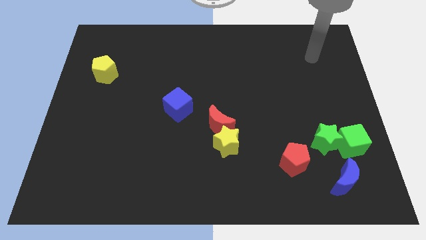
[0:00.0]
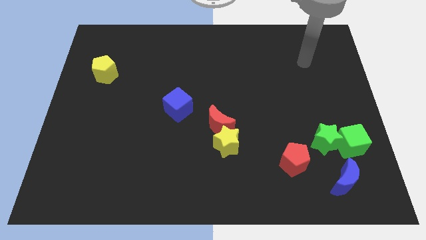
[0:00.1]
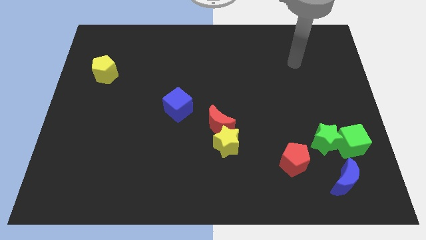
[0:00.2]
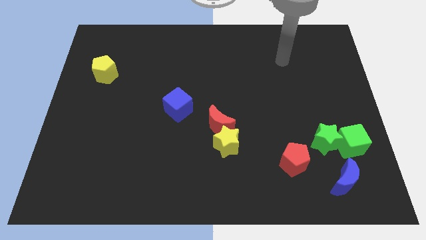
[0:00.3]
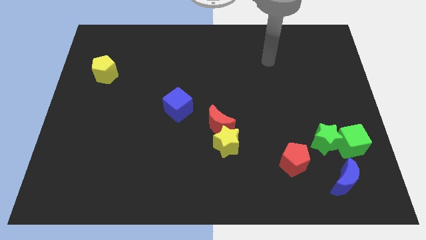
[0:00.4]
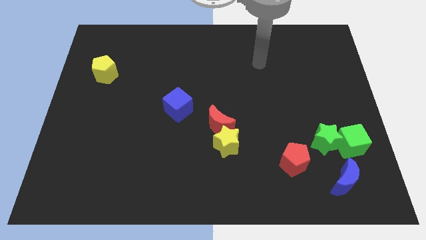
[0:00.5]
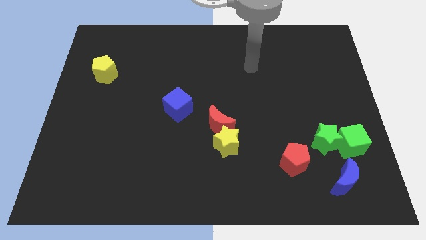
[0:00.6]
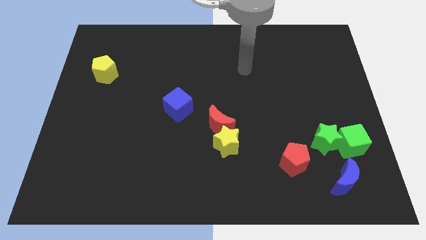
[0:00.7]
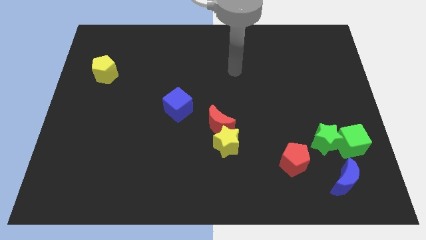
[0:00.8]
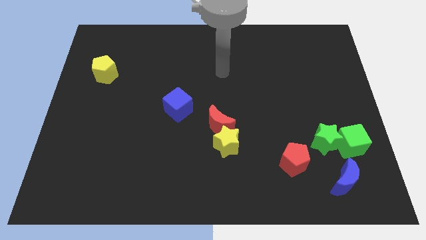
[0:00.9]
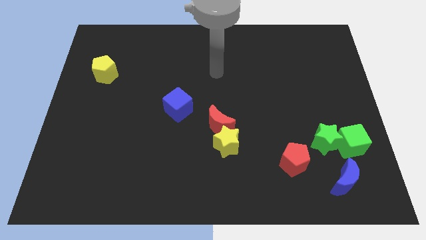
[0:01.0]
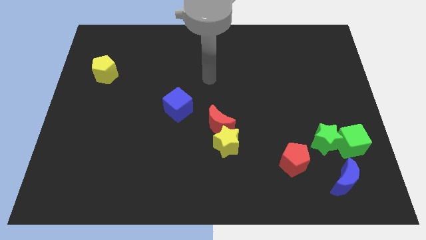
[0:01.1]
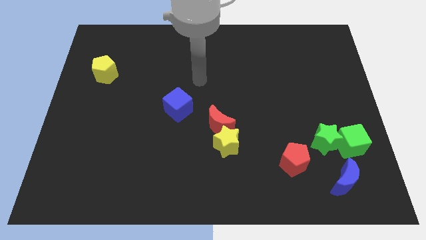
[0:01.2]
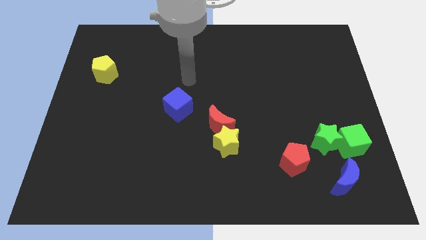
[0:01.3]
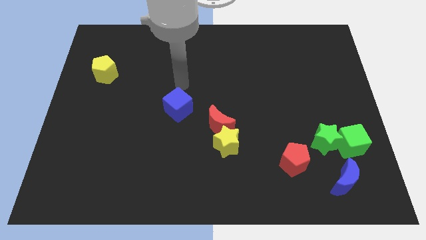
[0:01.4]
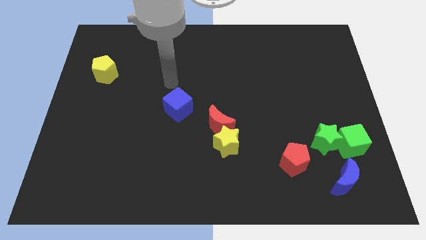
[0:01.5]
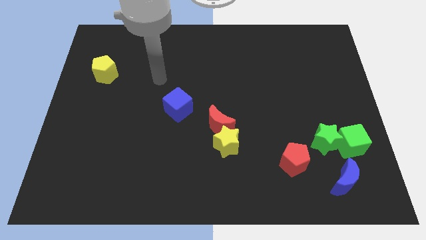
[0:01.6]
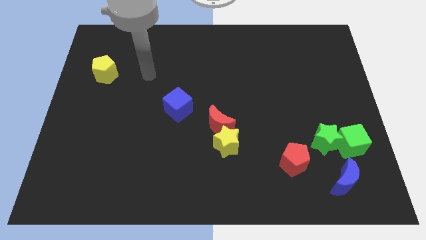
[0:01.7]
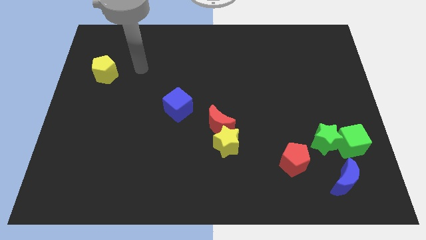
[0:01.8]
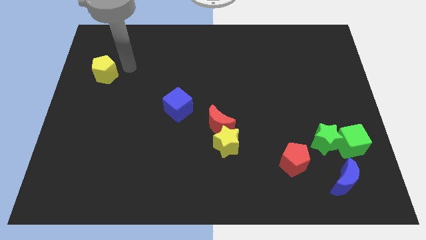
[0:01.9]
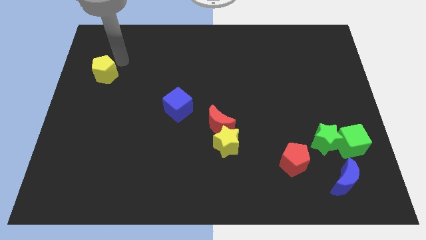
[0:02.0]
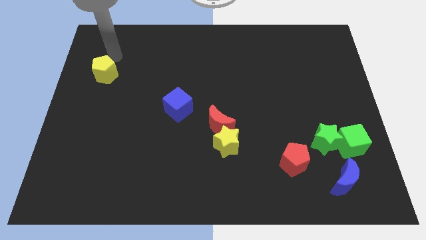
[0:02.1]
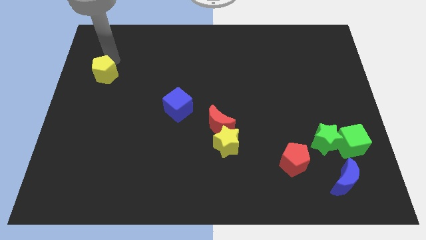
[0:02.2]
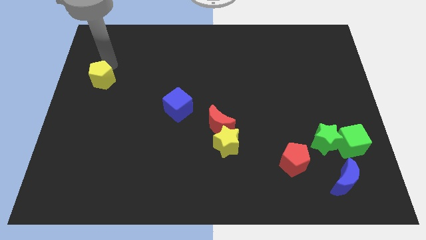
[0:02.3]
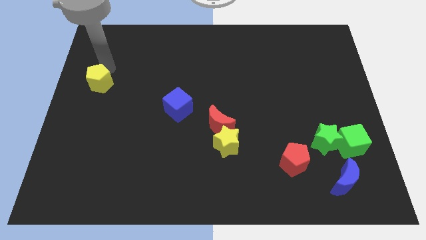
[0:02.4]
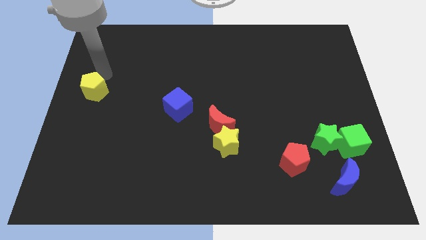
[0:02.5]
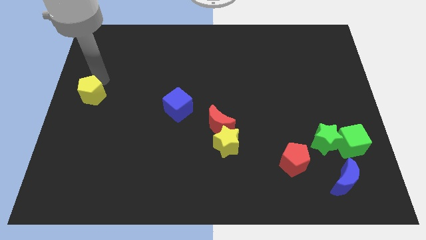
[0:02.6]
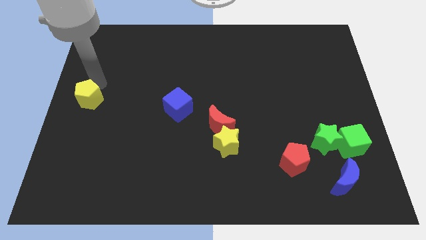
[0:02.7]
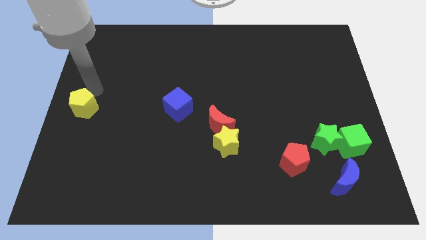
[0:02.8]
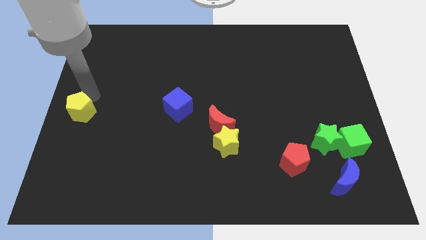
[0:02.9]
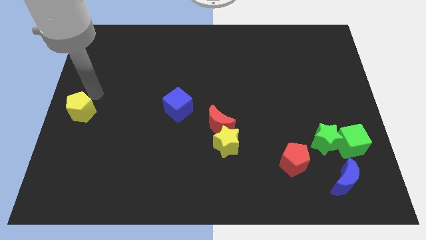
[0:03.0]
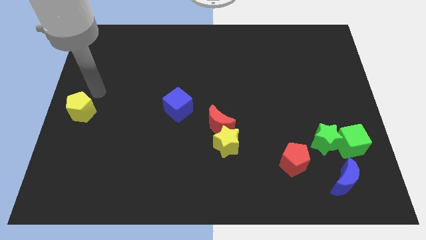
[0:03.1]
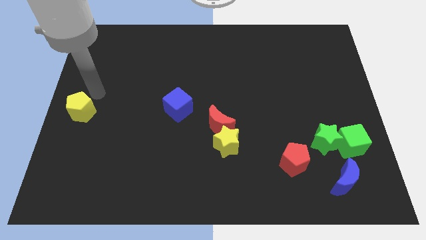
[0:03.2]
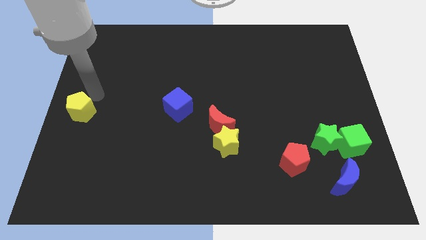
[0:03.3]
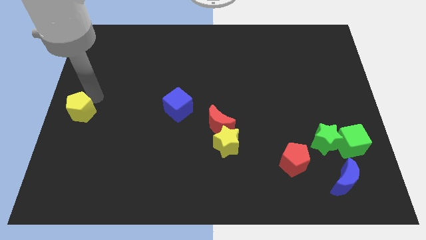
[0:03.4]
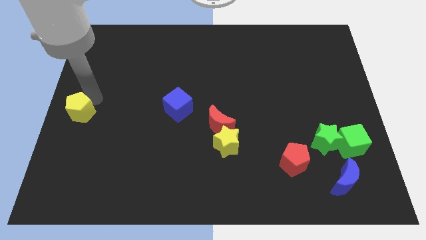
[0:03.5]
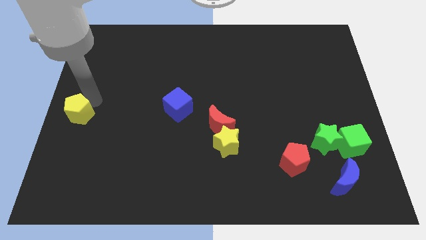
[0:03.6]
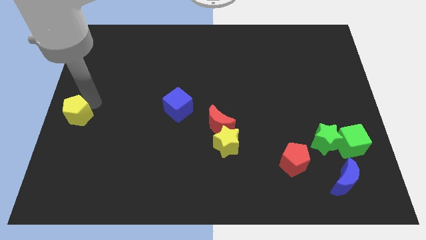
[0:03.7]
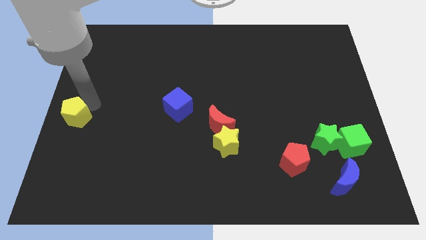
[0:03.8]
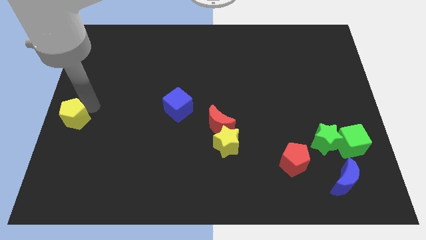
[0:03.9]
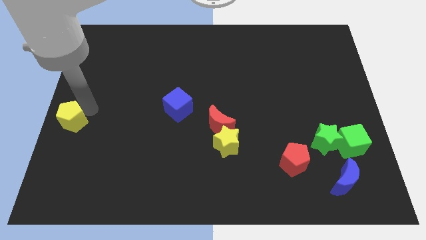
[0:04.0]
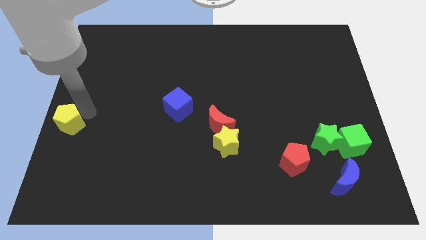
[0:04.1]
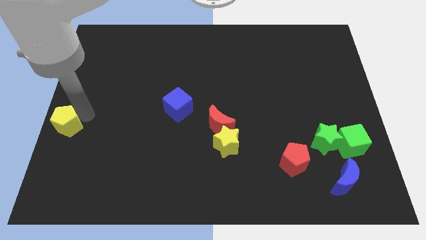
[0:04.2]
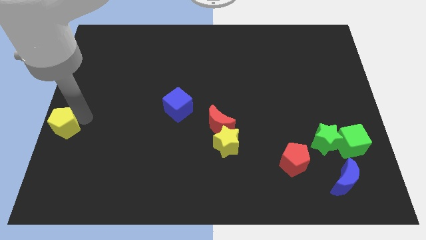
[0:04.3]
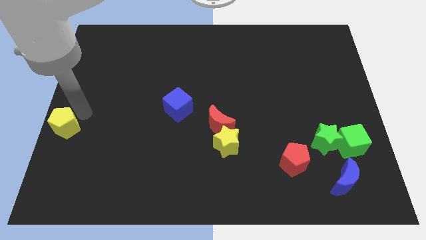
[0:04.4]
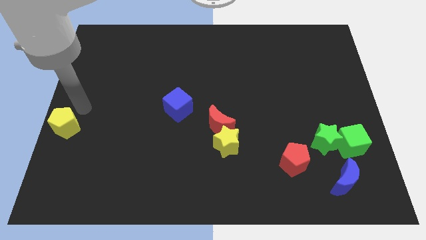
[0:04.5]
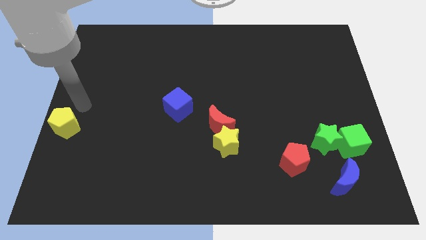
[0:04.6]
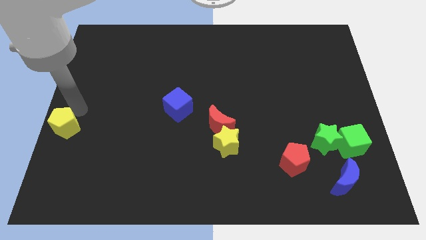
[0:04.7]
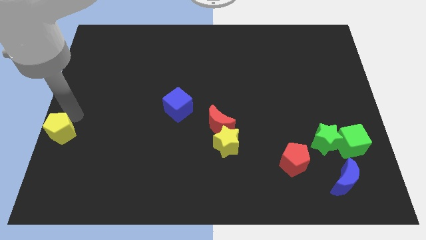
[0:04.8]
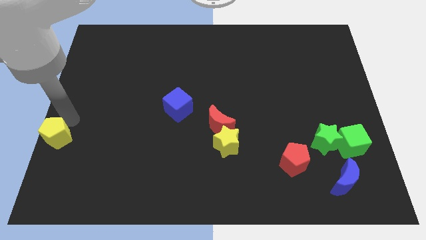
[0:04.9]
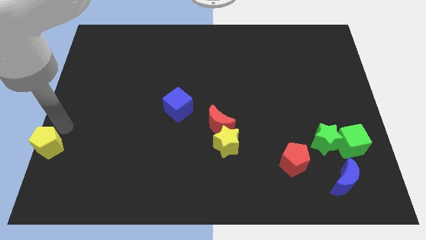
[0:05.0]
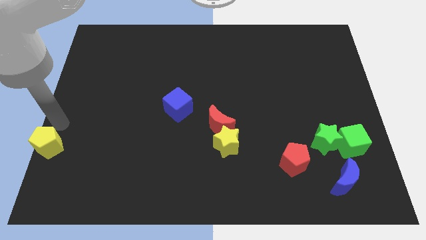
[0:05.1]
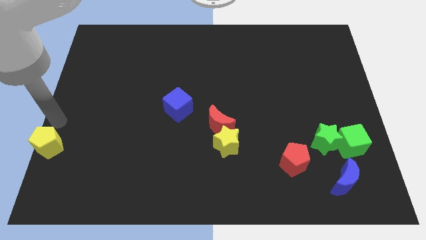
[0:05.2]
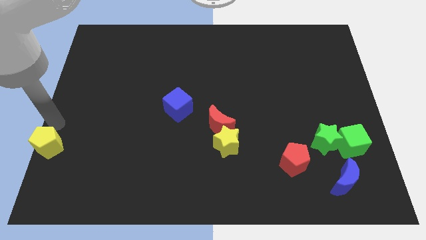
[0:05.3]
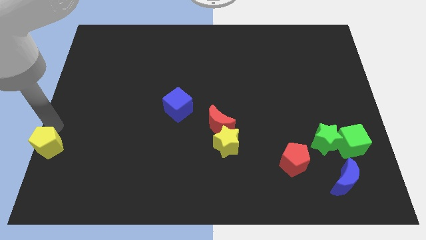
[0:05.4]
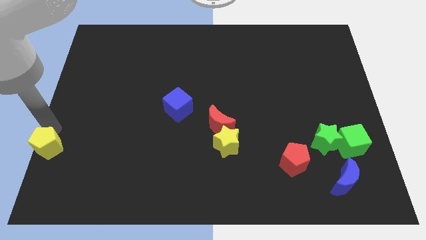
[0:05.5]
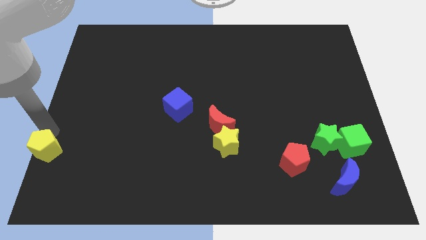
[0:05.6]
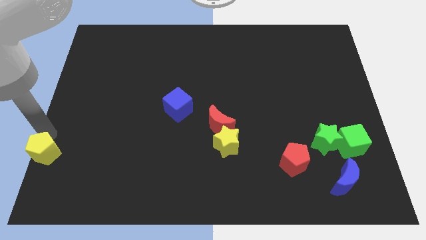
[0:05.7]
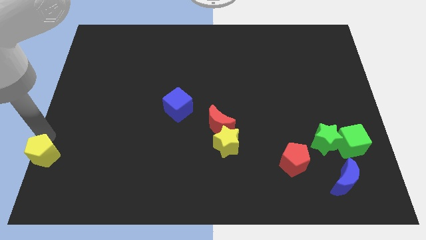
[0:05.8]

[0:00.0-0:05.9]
move the yellow pentagon to the bottom left corner

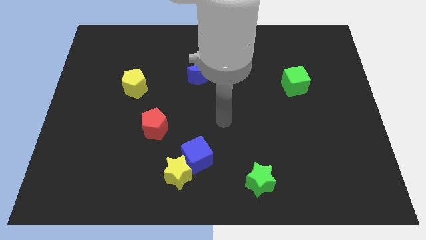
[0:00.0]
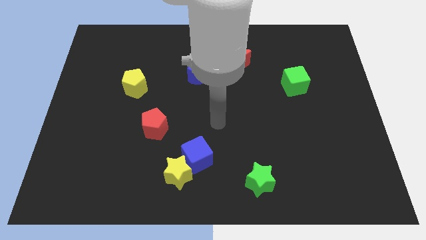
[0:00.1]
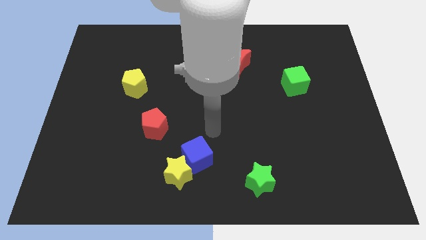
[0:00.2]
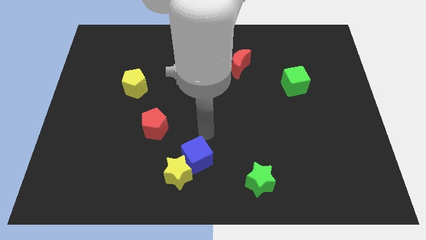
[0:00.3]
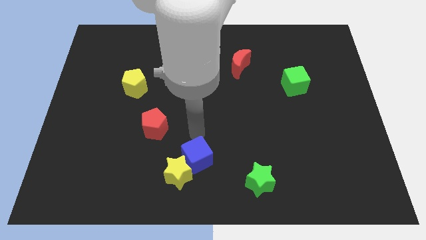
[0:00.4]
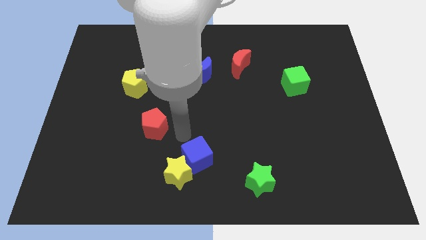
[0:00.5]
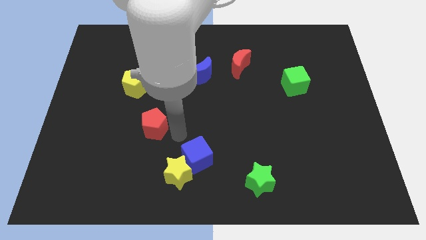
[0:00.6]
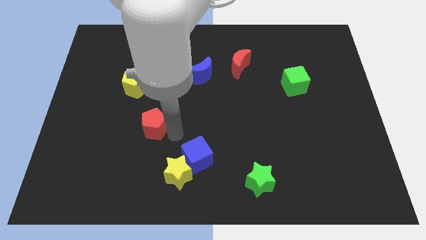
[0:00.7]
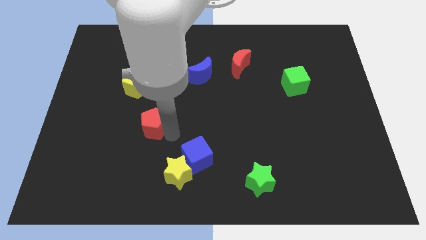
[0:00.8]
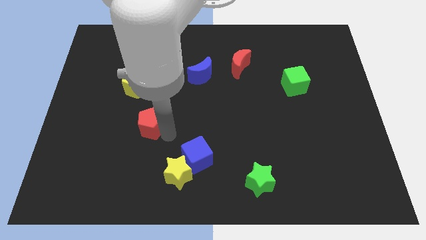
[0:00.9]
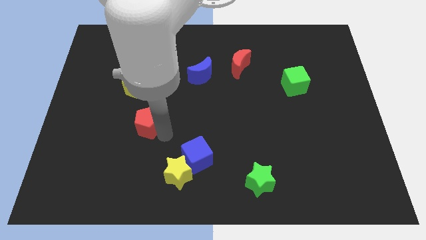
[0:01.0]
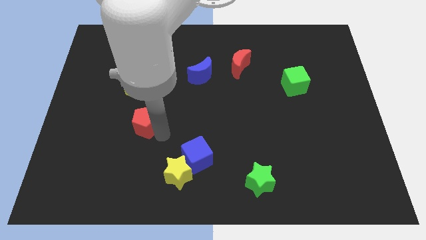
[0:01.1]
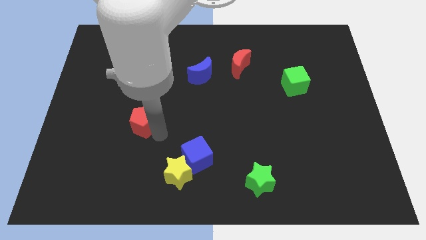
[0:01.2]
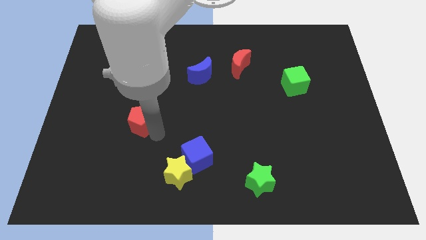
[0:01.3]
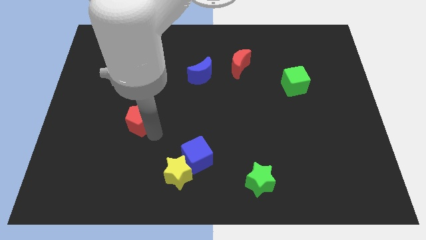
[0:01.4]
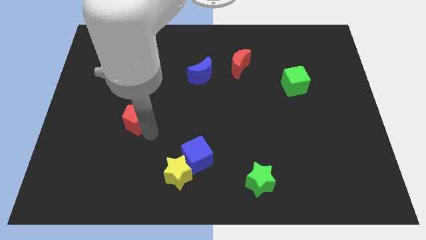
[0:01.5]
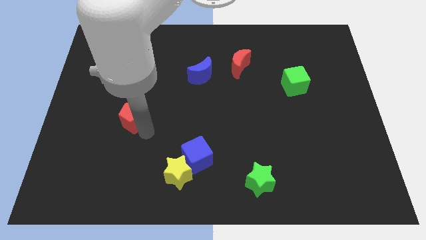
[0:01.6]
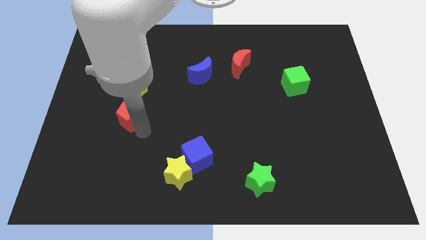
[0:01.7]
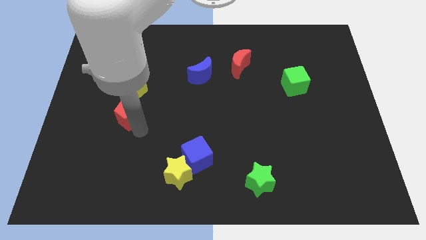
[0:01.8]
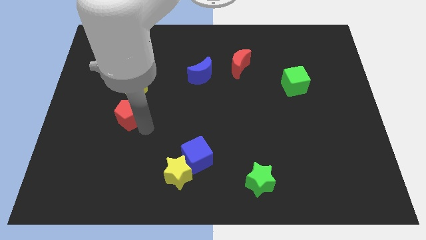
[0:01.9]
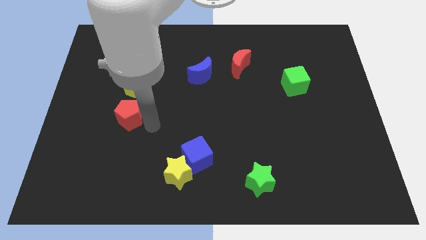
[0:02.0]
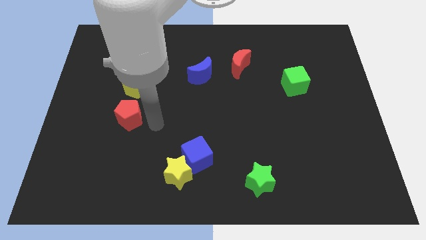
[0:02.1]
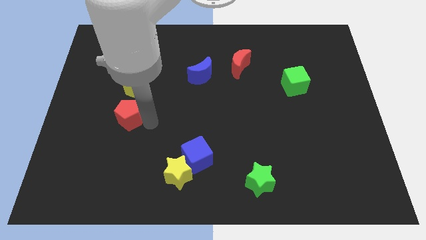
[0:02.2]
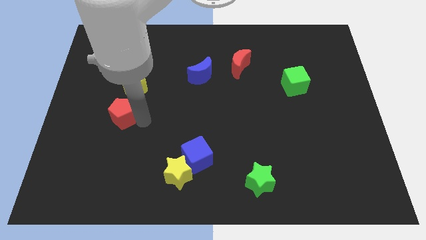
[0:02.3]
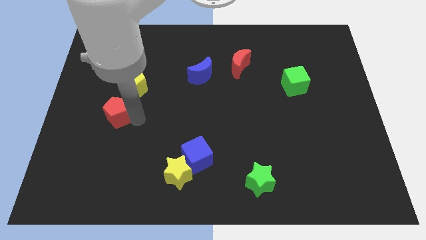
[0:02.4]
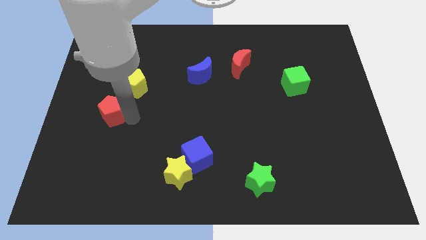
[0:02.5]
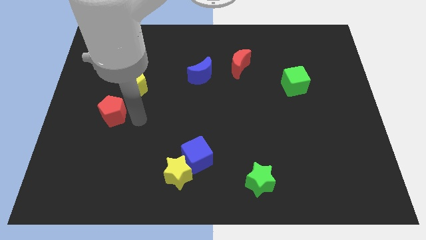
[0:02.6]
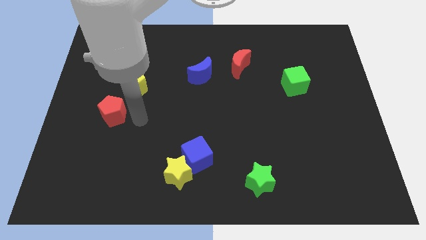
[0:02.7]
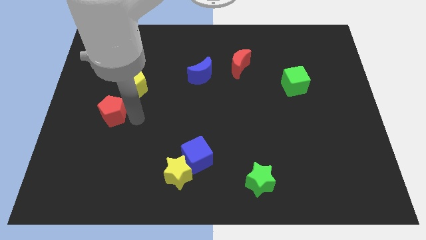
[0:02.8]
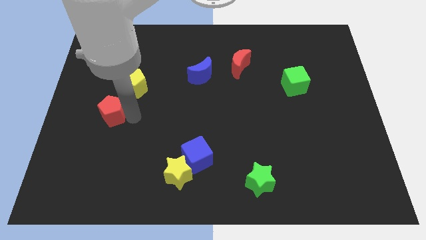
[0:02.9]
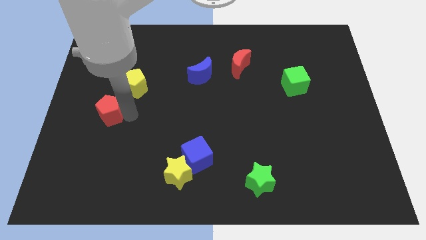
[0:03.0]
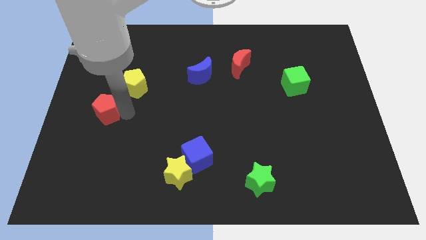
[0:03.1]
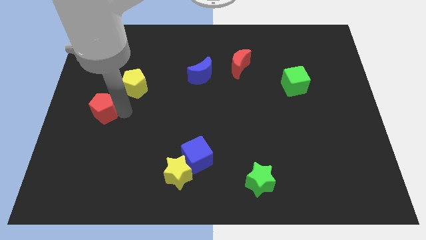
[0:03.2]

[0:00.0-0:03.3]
slide the red pentagon to the center left
